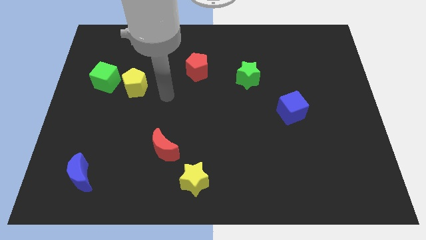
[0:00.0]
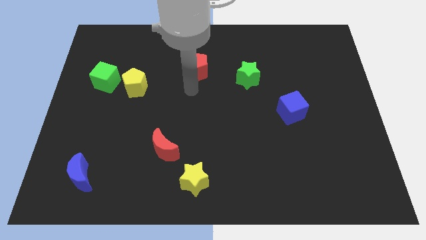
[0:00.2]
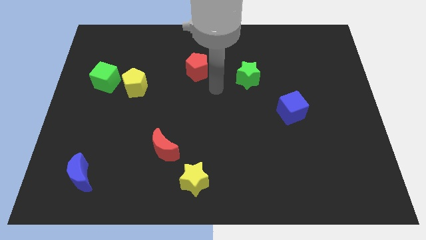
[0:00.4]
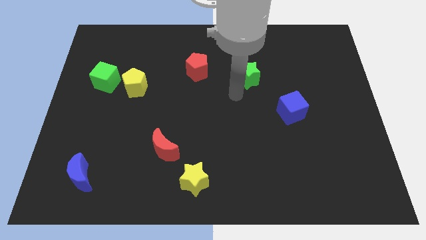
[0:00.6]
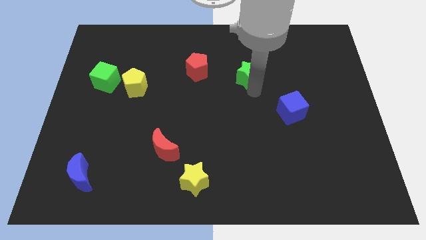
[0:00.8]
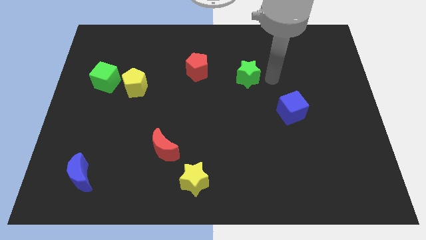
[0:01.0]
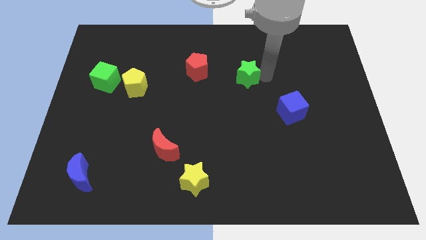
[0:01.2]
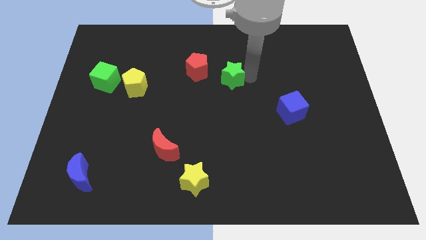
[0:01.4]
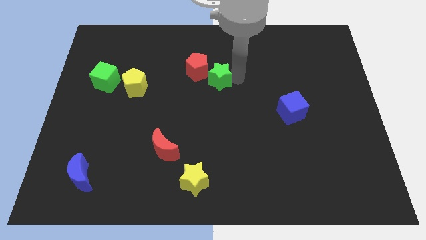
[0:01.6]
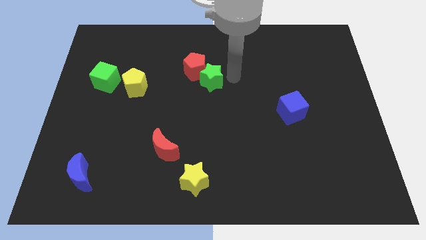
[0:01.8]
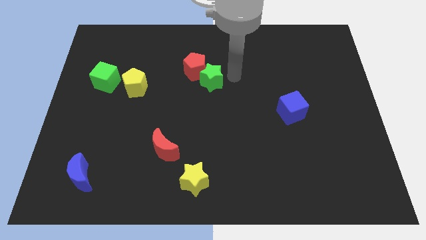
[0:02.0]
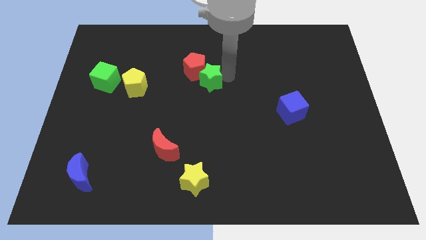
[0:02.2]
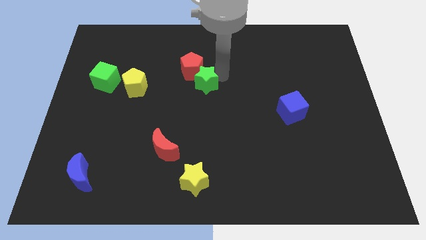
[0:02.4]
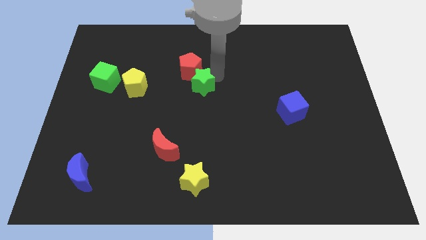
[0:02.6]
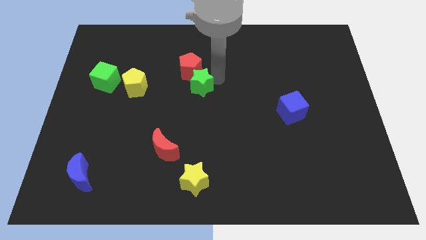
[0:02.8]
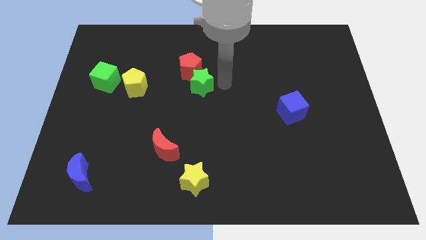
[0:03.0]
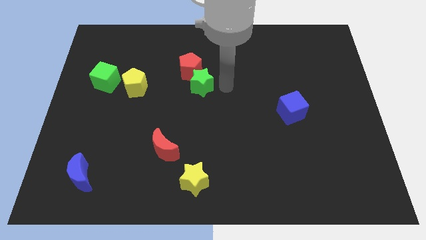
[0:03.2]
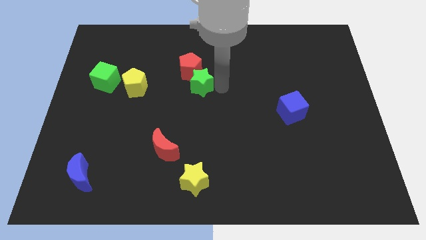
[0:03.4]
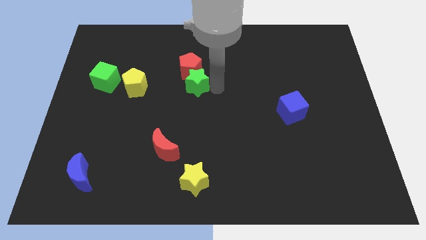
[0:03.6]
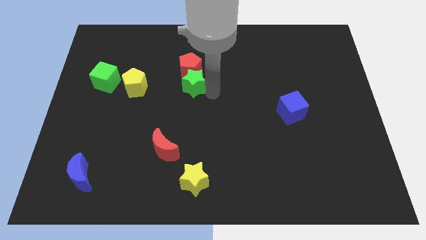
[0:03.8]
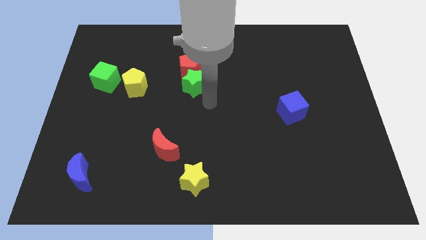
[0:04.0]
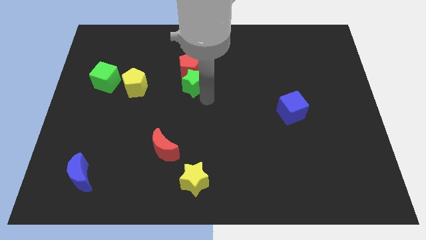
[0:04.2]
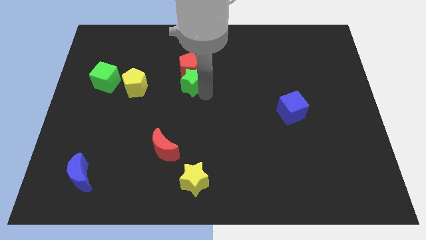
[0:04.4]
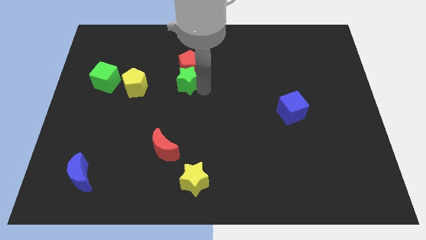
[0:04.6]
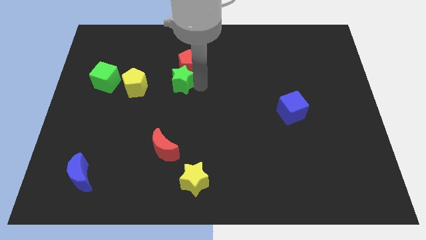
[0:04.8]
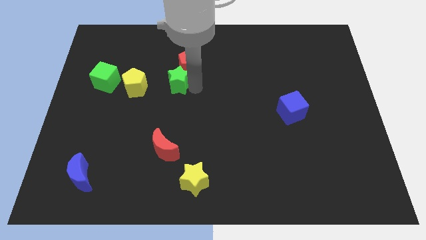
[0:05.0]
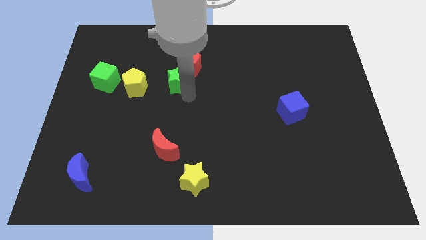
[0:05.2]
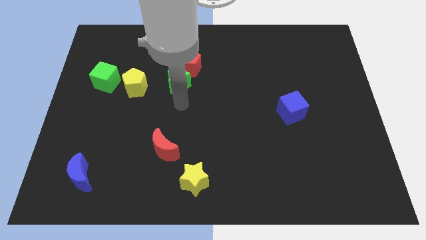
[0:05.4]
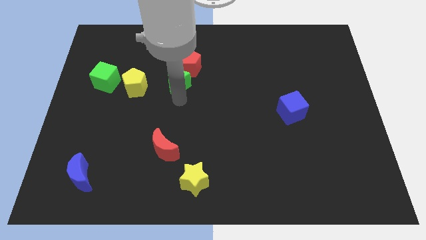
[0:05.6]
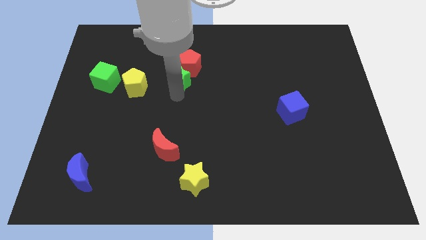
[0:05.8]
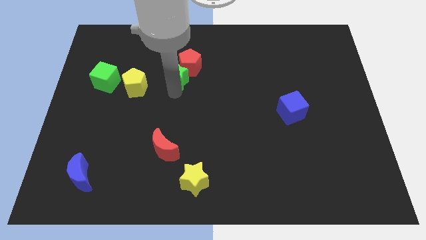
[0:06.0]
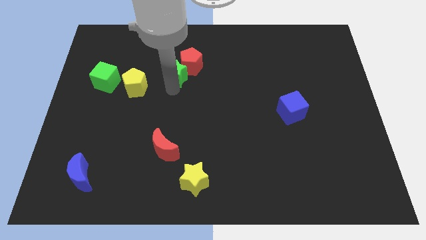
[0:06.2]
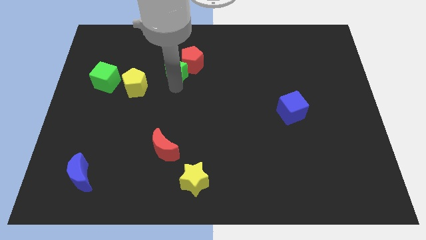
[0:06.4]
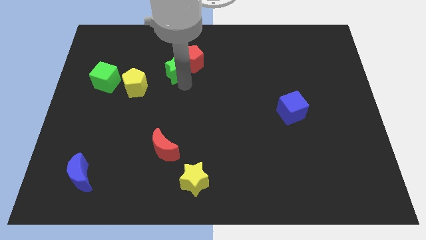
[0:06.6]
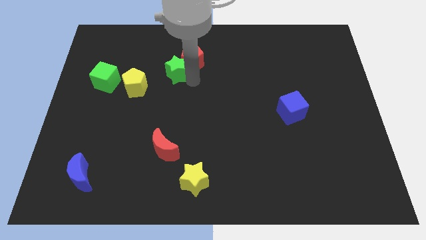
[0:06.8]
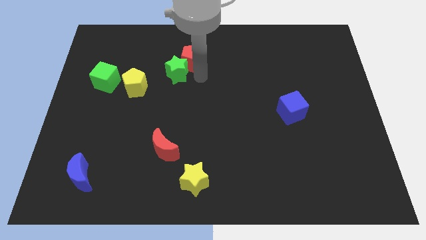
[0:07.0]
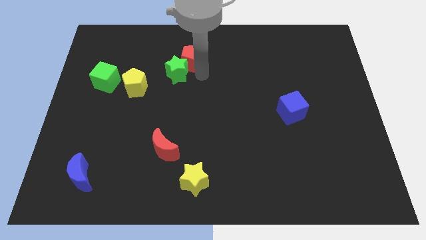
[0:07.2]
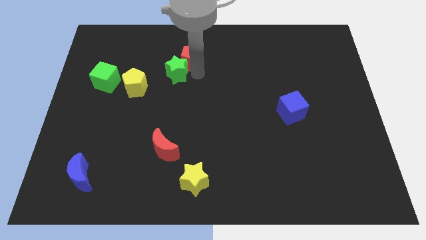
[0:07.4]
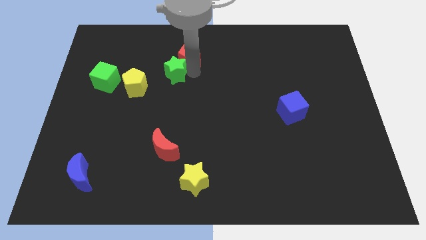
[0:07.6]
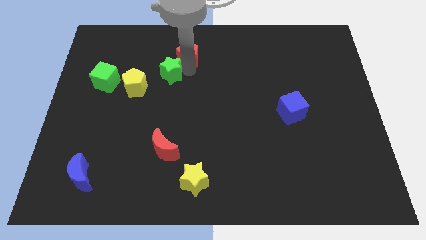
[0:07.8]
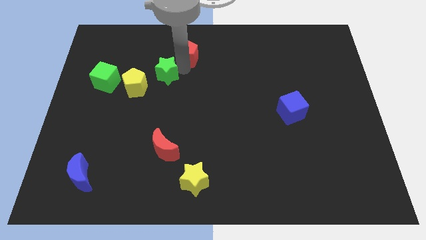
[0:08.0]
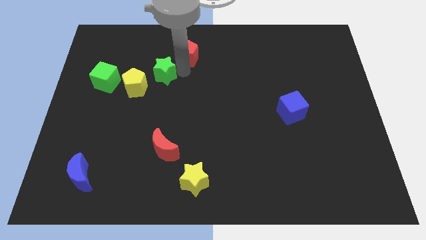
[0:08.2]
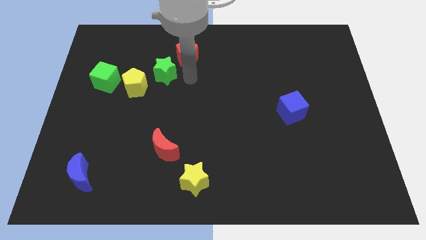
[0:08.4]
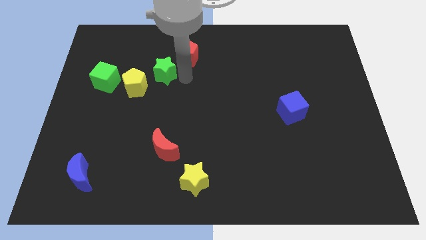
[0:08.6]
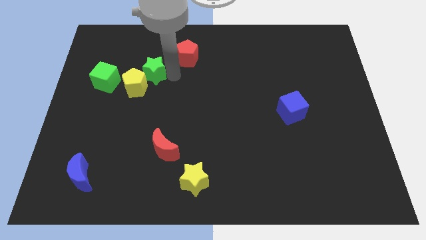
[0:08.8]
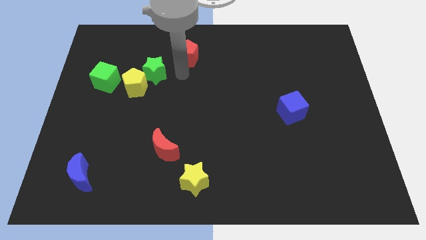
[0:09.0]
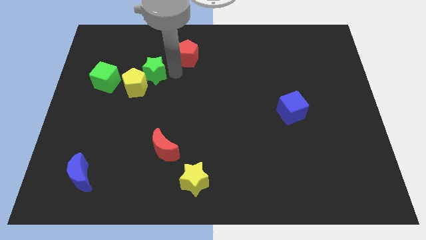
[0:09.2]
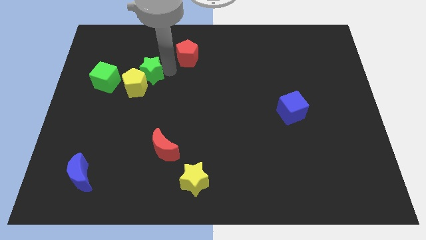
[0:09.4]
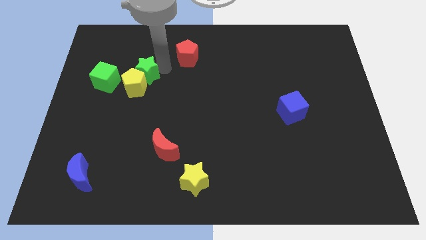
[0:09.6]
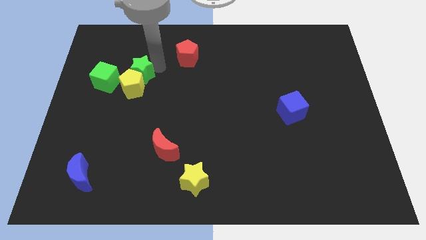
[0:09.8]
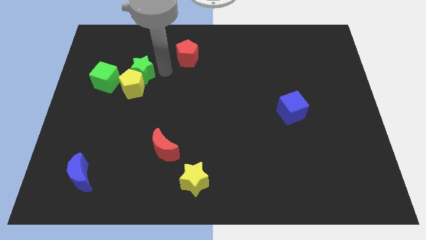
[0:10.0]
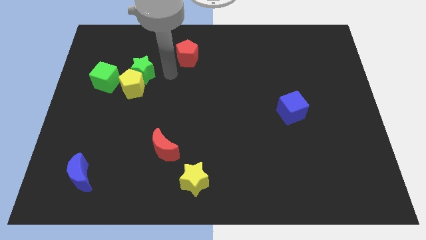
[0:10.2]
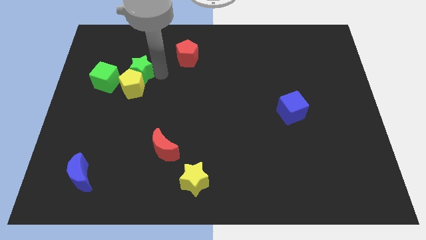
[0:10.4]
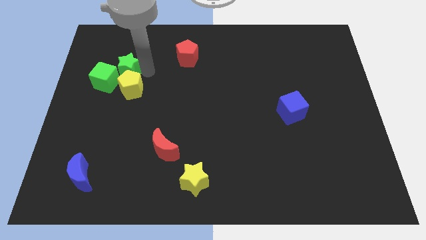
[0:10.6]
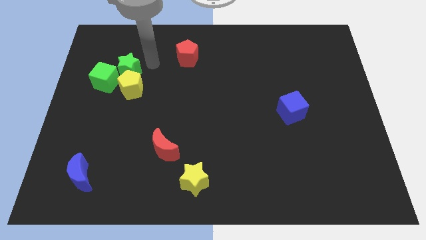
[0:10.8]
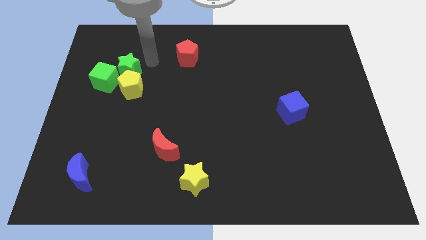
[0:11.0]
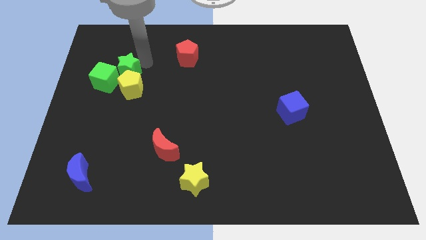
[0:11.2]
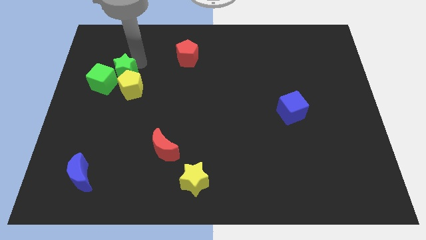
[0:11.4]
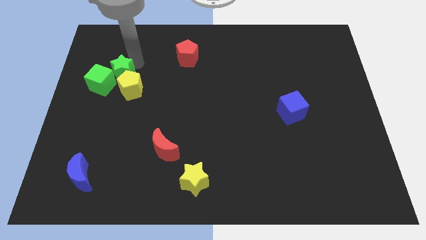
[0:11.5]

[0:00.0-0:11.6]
push the green star to the green cube

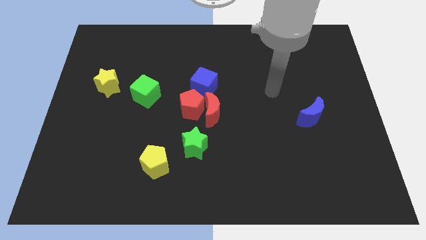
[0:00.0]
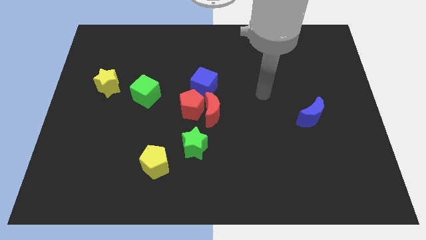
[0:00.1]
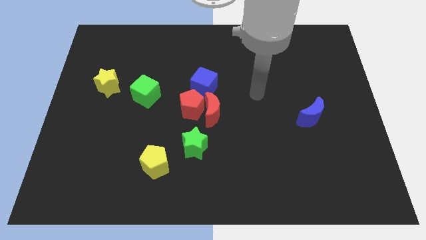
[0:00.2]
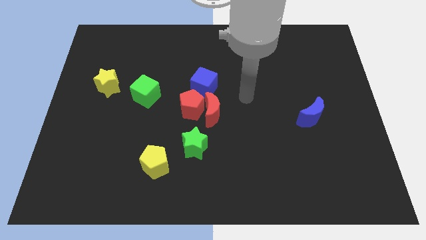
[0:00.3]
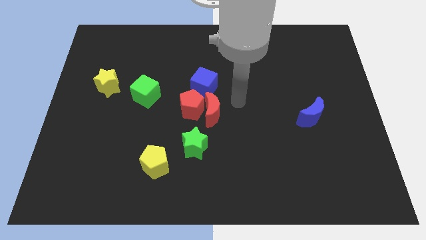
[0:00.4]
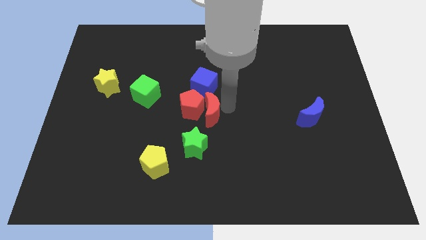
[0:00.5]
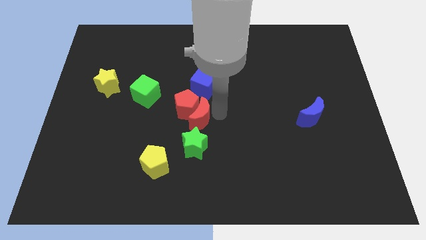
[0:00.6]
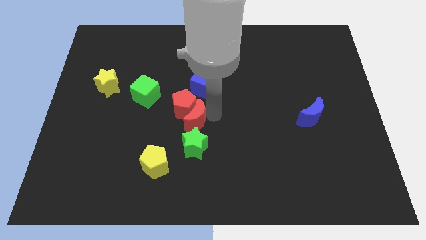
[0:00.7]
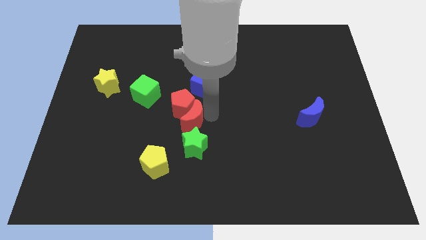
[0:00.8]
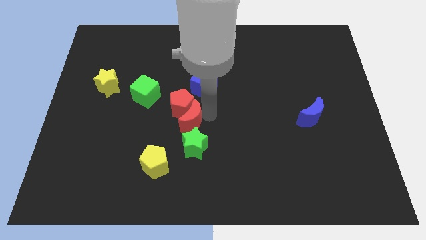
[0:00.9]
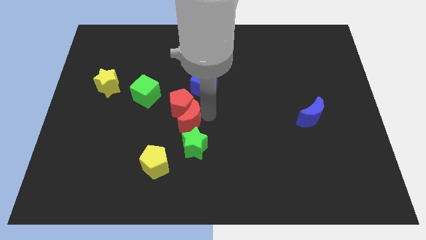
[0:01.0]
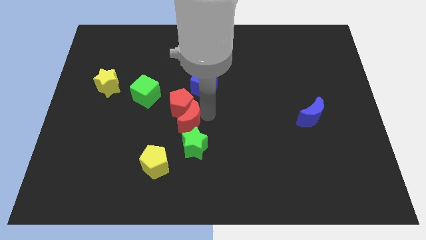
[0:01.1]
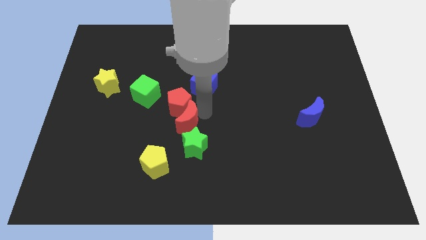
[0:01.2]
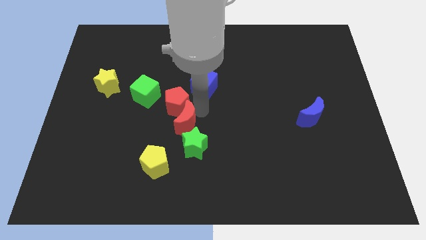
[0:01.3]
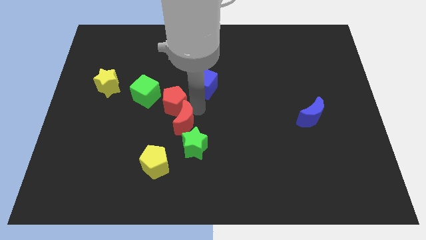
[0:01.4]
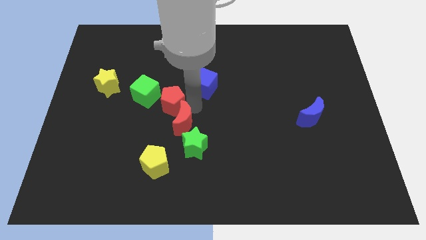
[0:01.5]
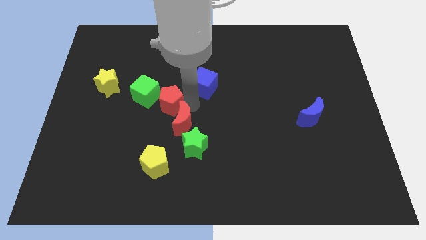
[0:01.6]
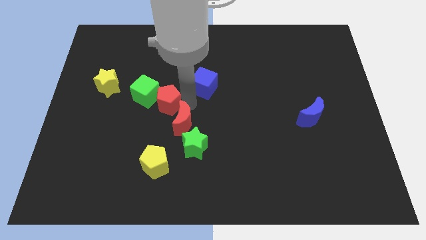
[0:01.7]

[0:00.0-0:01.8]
push the red pentagon towards the green cube
